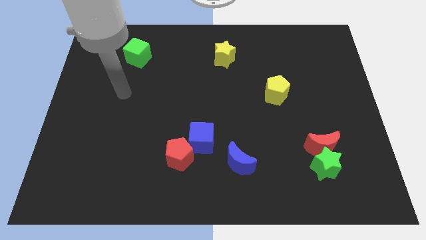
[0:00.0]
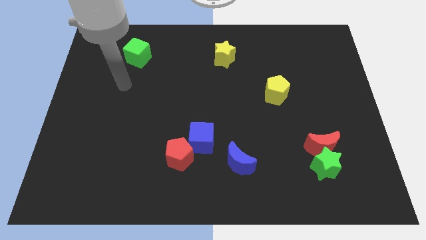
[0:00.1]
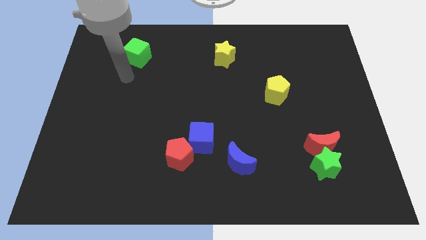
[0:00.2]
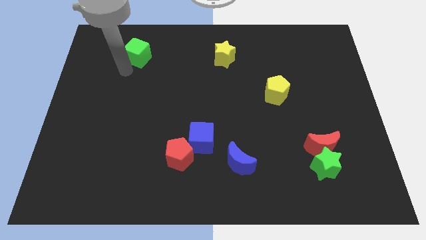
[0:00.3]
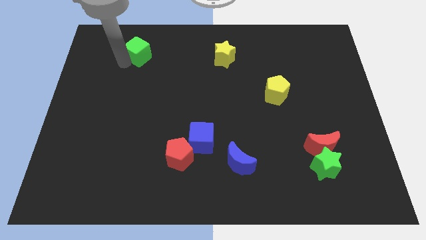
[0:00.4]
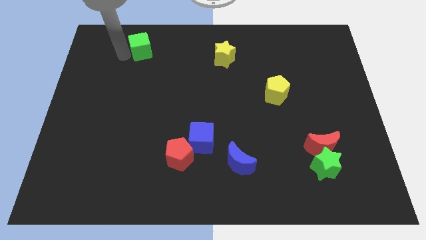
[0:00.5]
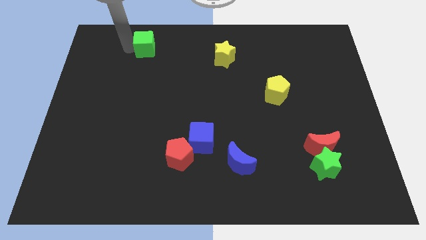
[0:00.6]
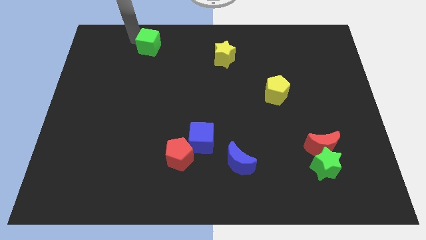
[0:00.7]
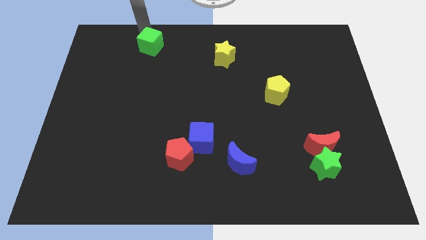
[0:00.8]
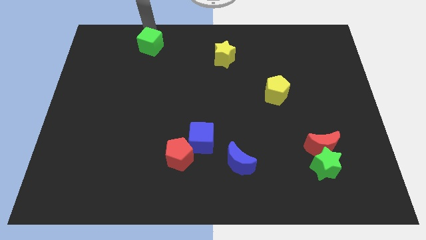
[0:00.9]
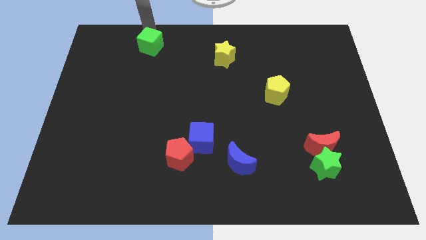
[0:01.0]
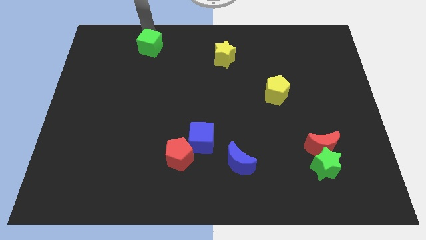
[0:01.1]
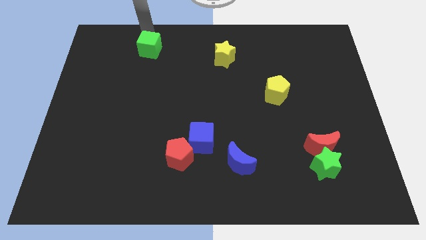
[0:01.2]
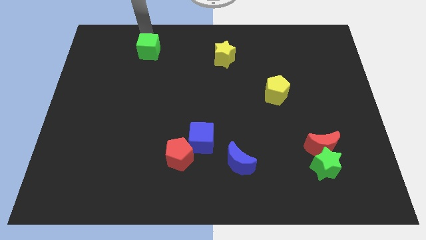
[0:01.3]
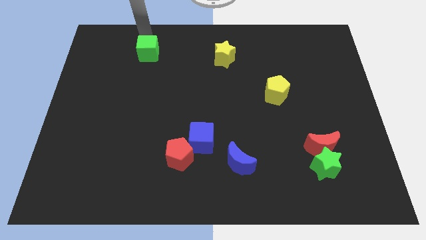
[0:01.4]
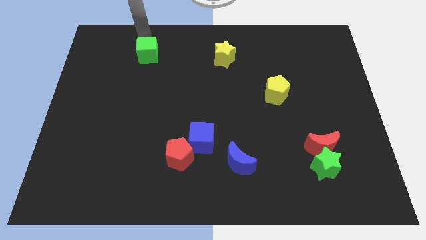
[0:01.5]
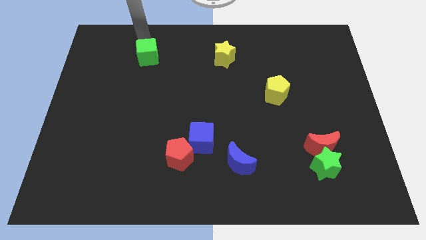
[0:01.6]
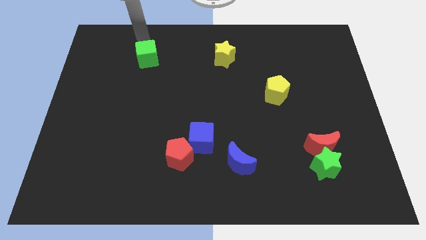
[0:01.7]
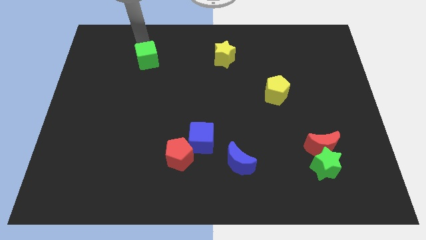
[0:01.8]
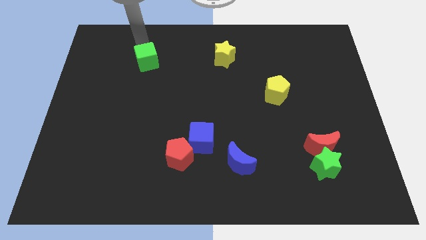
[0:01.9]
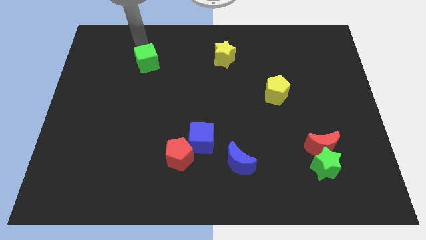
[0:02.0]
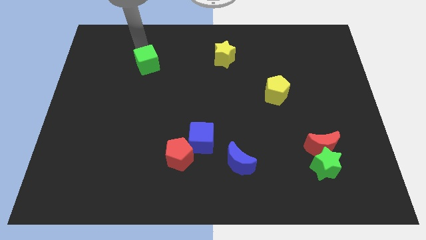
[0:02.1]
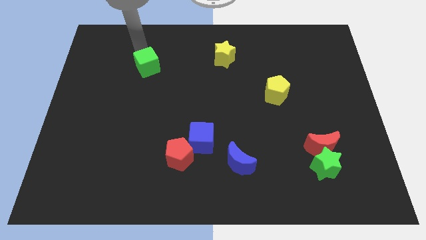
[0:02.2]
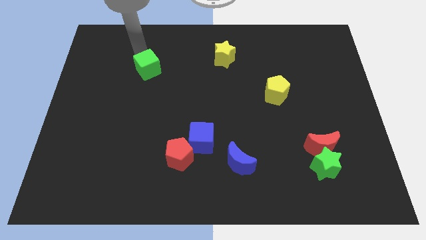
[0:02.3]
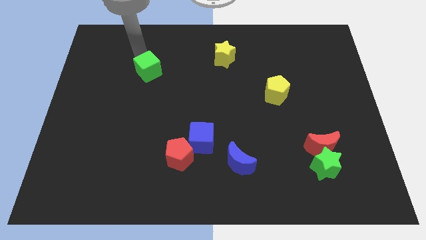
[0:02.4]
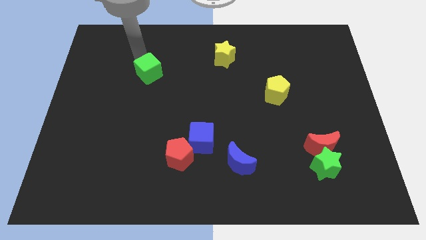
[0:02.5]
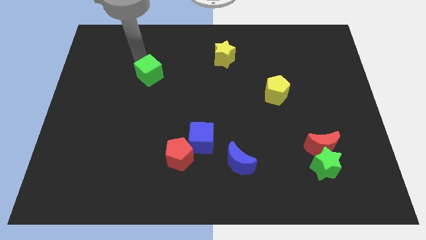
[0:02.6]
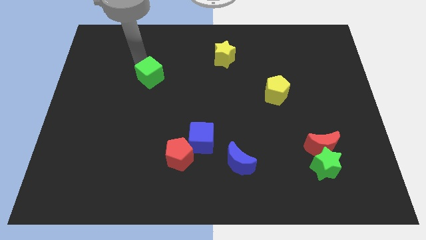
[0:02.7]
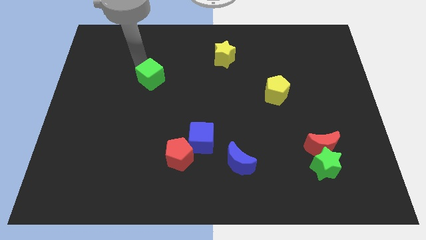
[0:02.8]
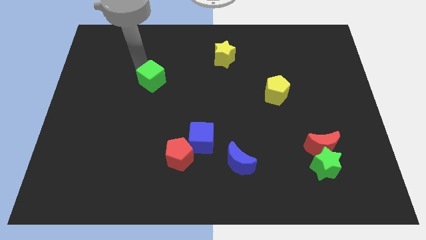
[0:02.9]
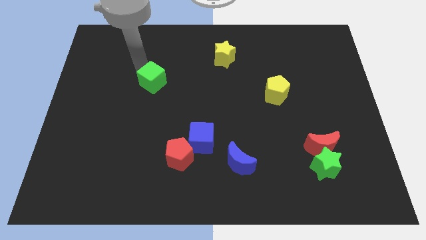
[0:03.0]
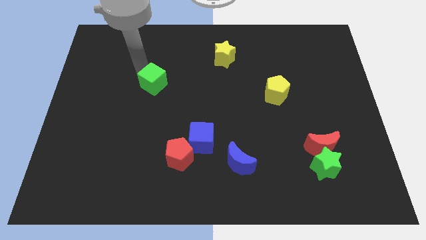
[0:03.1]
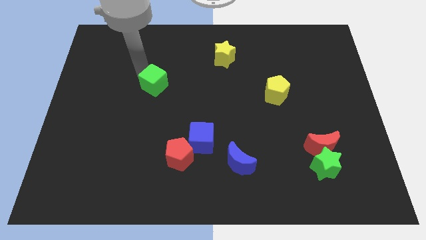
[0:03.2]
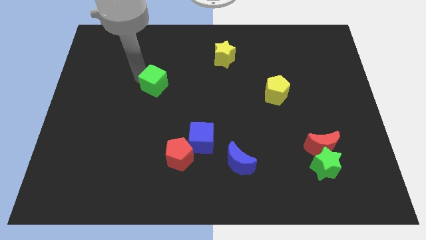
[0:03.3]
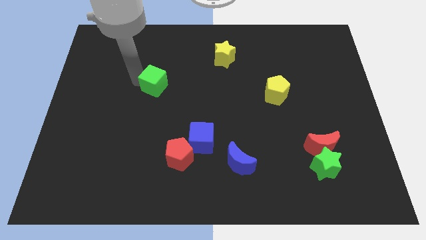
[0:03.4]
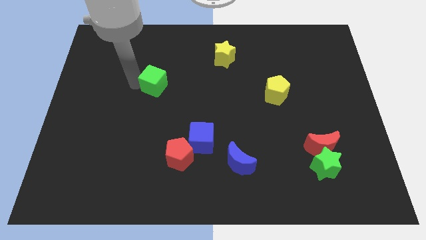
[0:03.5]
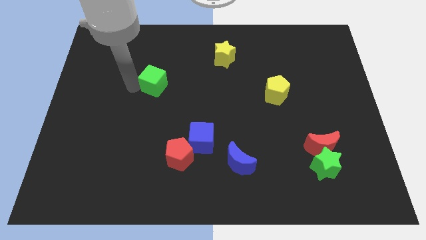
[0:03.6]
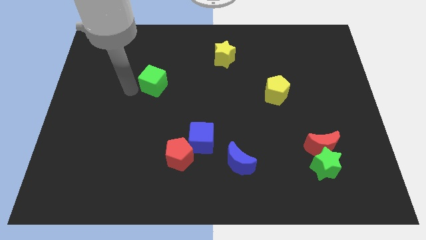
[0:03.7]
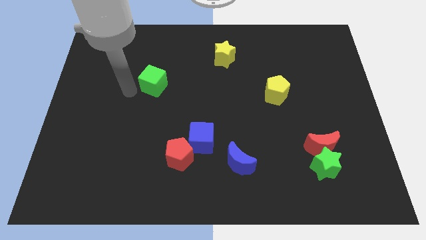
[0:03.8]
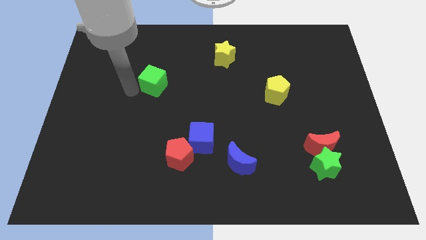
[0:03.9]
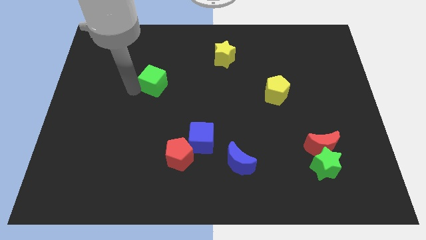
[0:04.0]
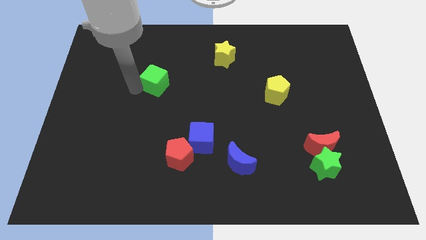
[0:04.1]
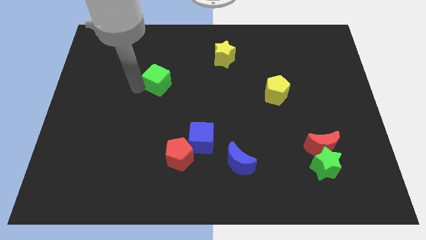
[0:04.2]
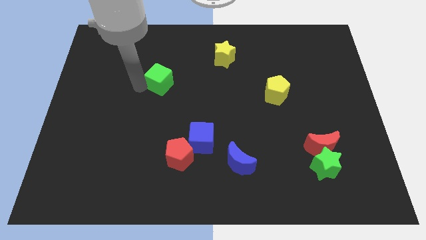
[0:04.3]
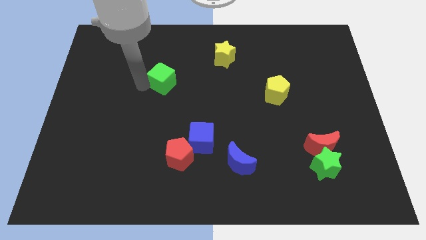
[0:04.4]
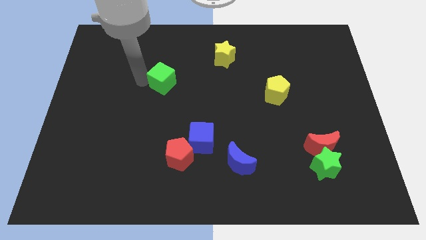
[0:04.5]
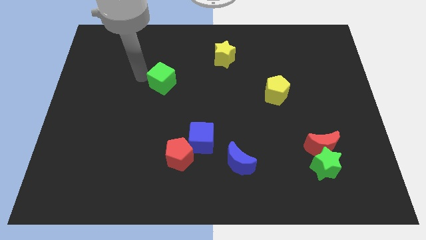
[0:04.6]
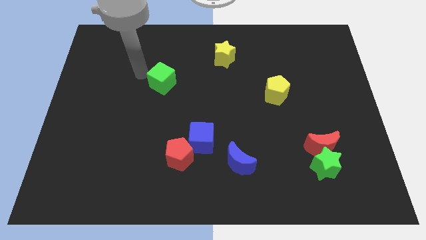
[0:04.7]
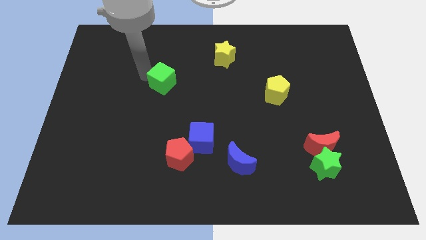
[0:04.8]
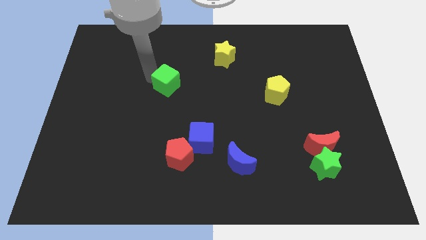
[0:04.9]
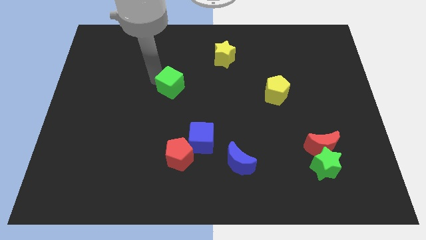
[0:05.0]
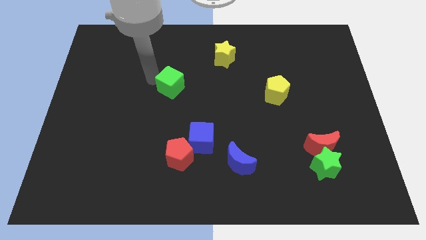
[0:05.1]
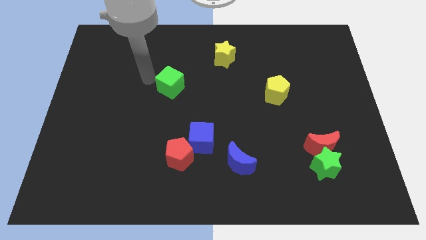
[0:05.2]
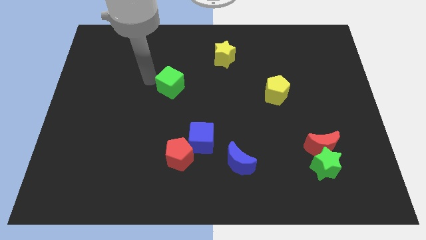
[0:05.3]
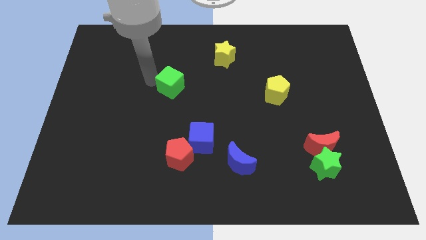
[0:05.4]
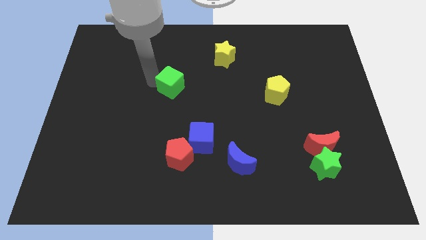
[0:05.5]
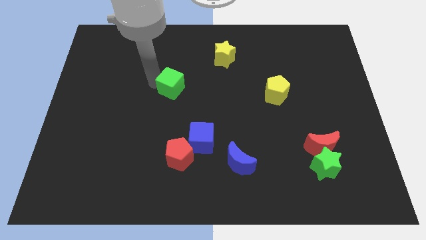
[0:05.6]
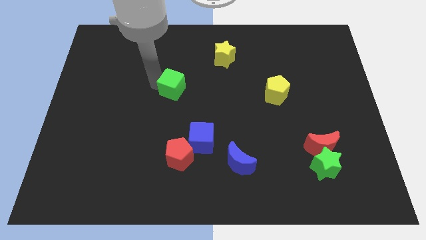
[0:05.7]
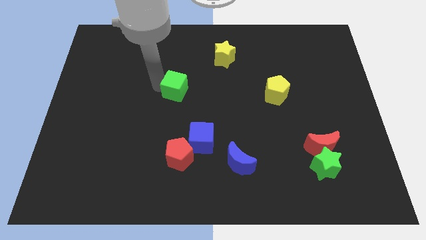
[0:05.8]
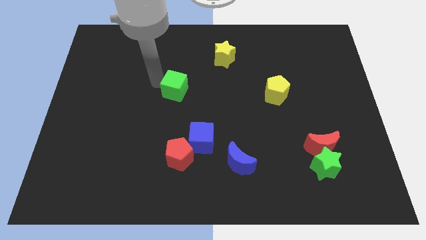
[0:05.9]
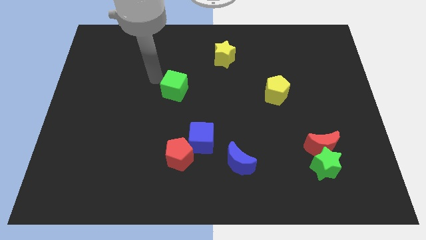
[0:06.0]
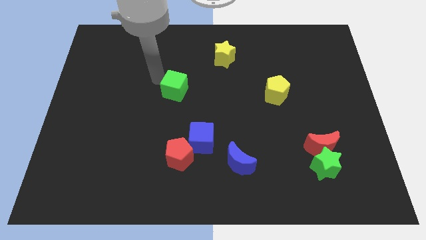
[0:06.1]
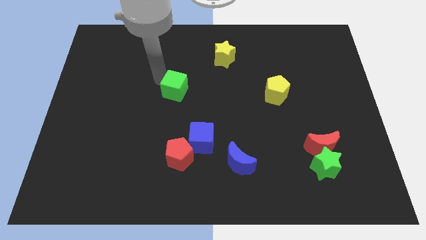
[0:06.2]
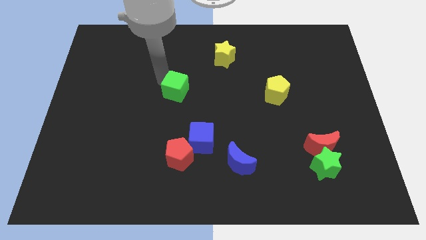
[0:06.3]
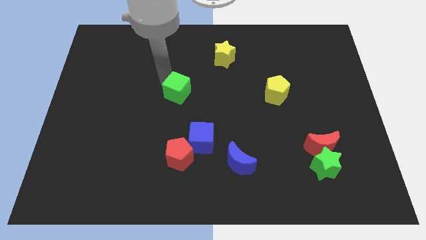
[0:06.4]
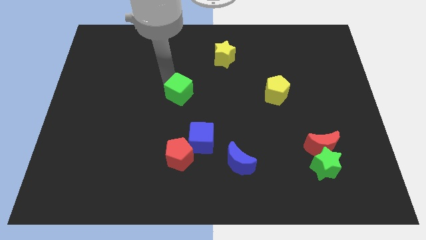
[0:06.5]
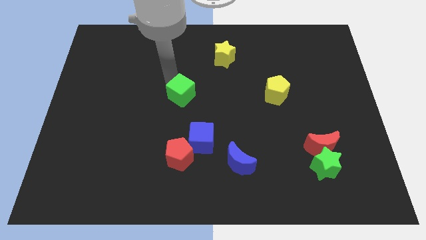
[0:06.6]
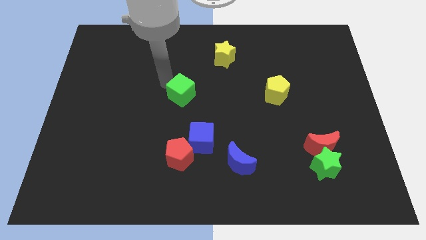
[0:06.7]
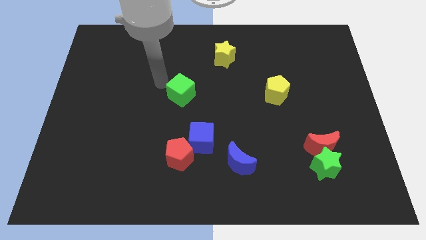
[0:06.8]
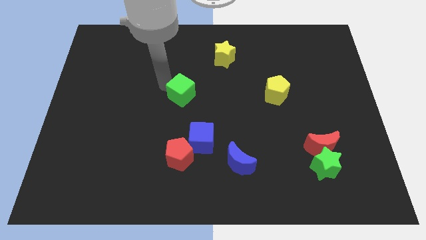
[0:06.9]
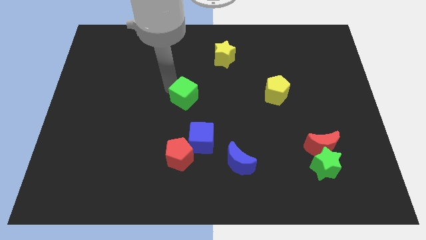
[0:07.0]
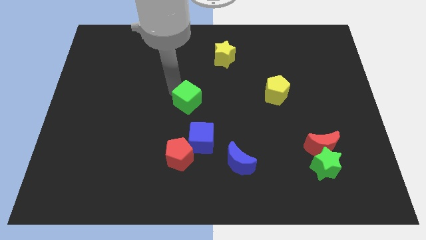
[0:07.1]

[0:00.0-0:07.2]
move the green cube downwards and right

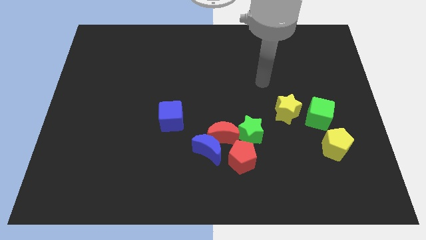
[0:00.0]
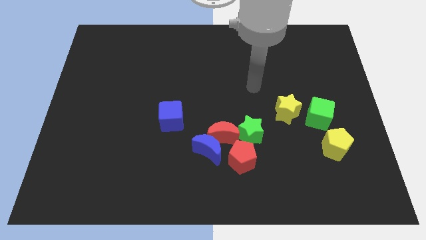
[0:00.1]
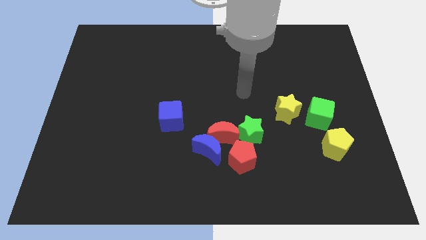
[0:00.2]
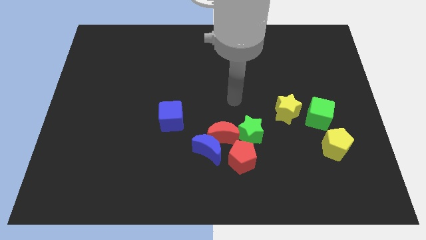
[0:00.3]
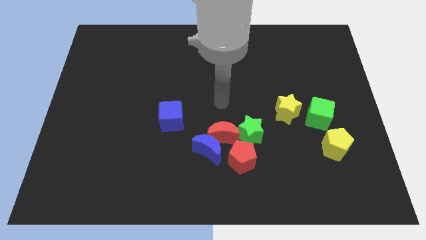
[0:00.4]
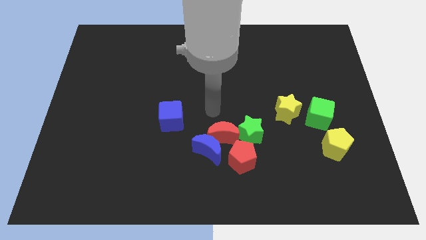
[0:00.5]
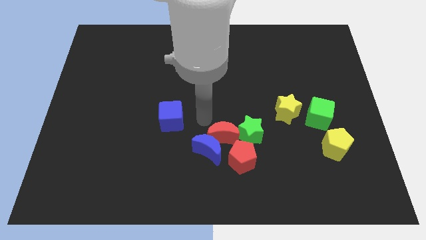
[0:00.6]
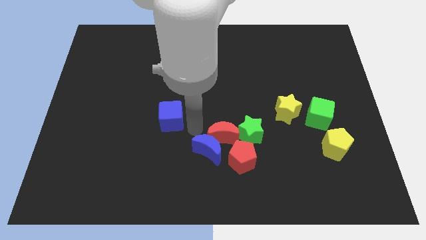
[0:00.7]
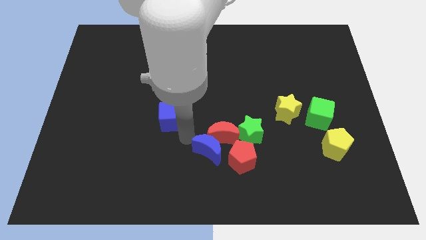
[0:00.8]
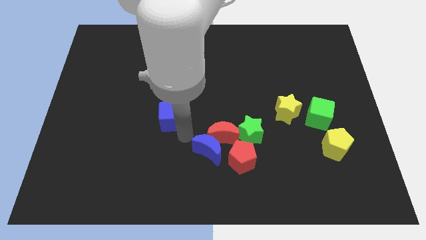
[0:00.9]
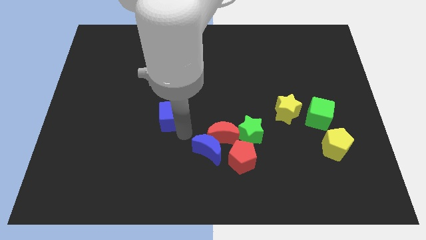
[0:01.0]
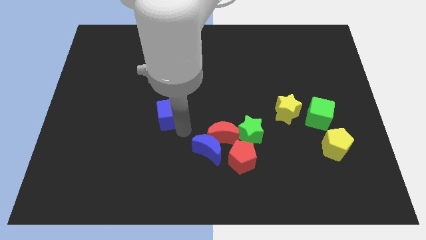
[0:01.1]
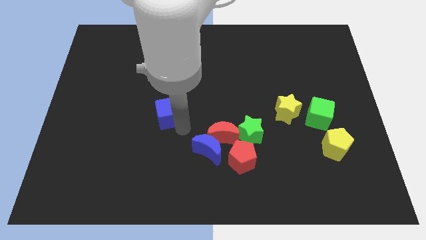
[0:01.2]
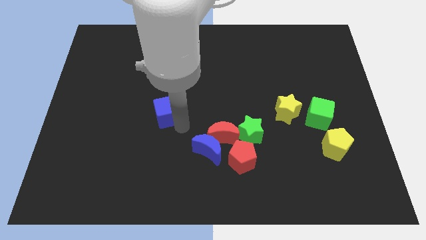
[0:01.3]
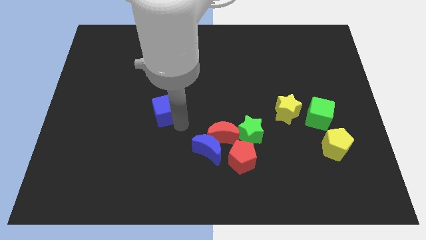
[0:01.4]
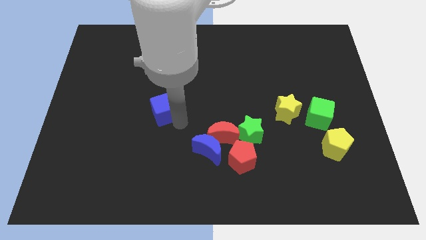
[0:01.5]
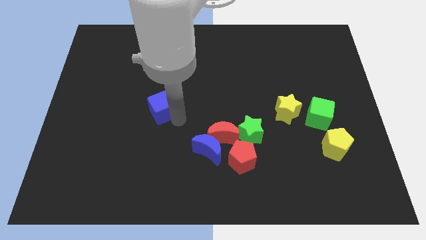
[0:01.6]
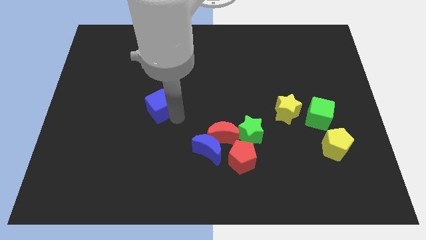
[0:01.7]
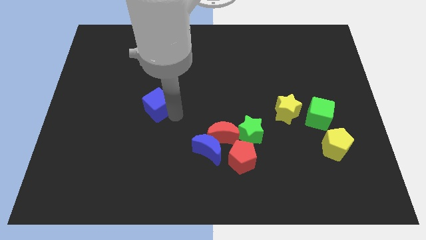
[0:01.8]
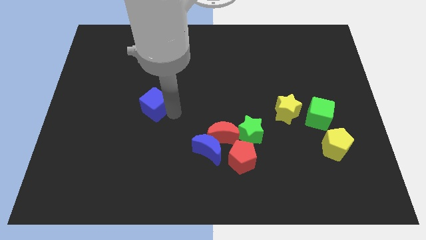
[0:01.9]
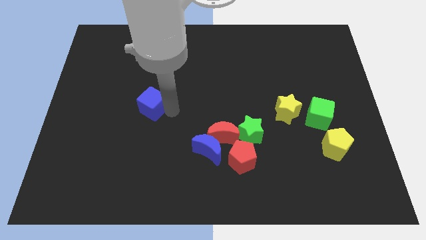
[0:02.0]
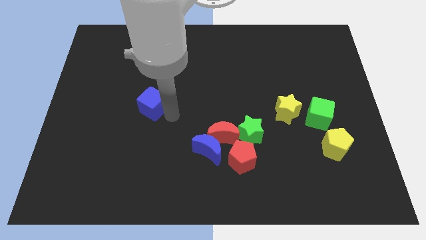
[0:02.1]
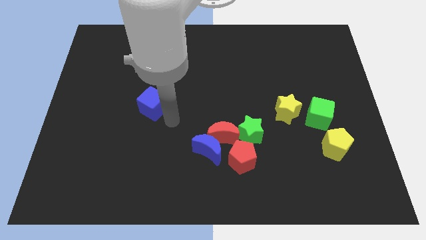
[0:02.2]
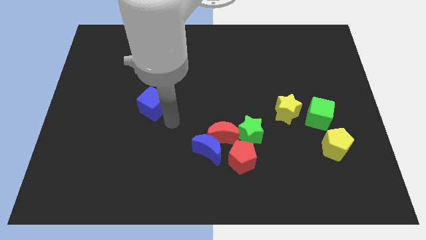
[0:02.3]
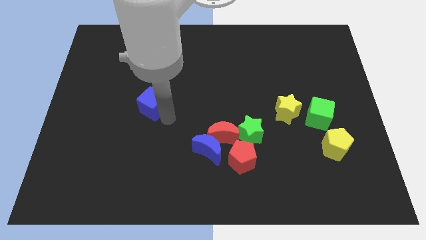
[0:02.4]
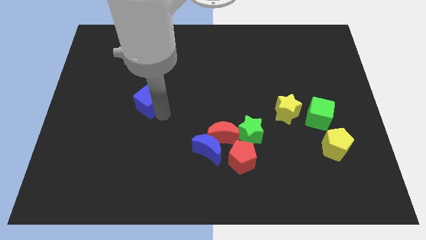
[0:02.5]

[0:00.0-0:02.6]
slide the blue cube up and to the left diagonally a little bit
